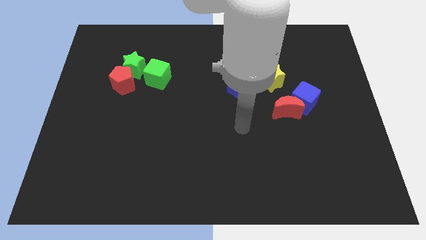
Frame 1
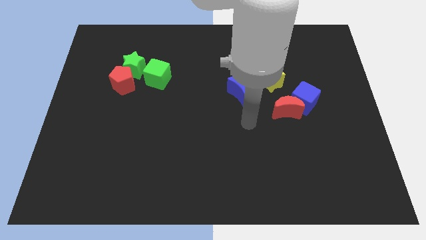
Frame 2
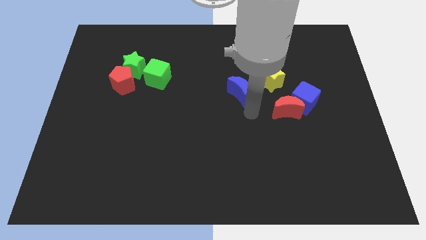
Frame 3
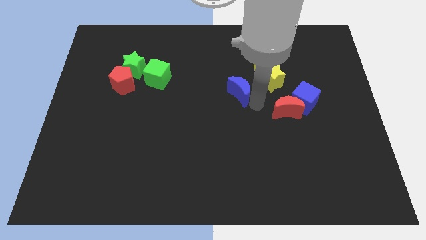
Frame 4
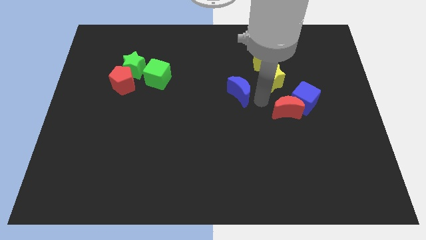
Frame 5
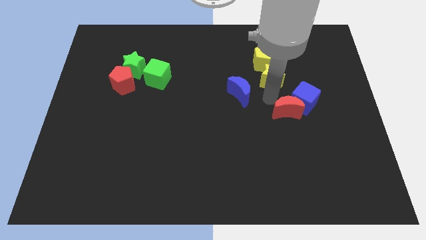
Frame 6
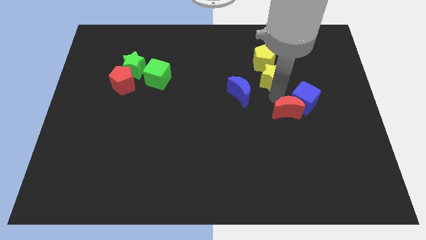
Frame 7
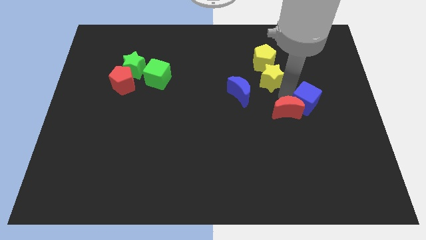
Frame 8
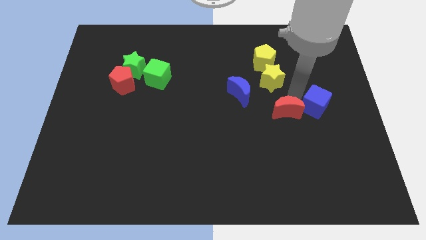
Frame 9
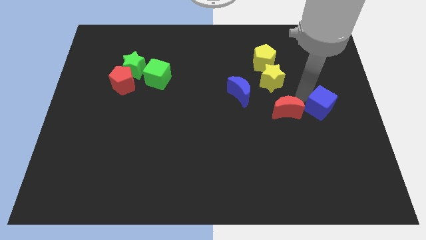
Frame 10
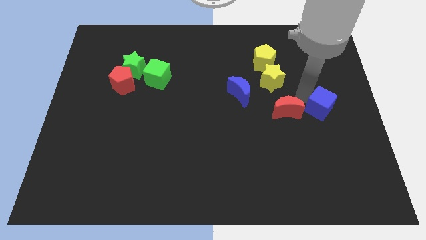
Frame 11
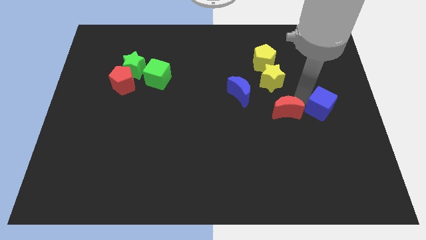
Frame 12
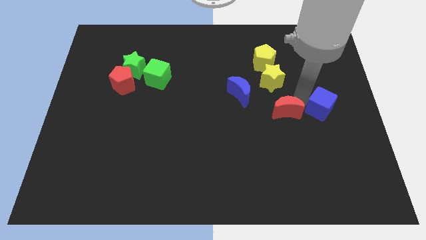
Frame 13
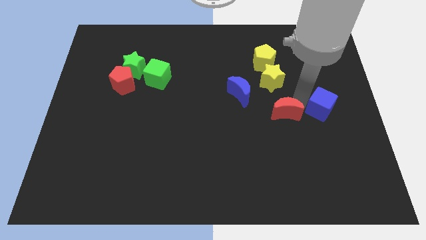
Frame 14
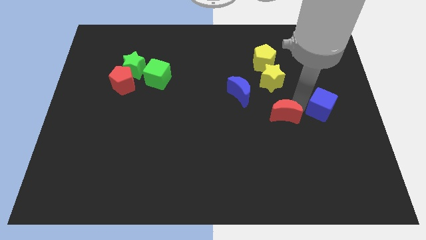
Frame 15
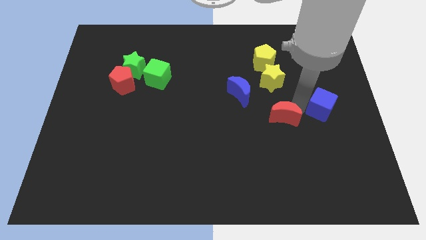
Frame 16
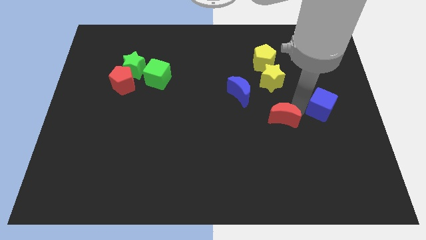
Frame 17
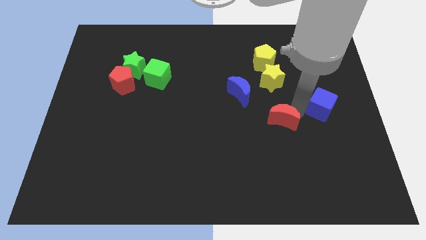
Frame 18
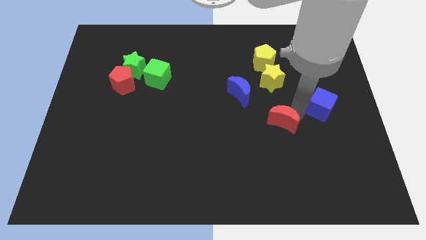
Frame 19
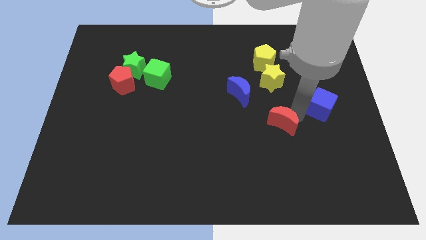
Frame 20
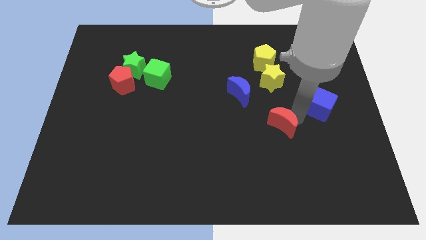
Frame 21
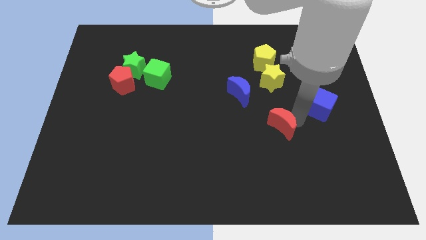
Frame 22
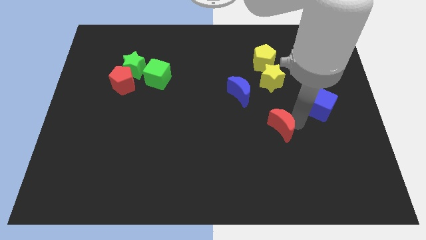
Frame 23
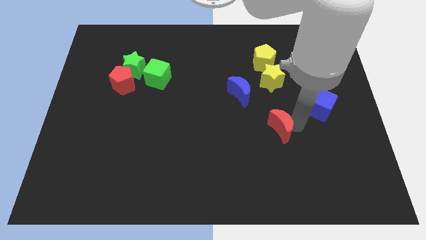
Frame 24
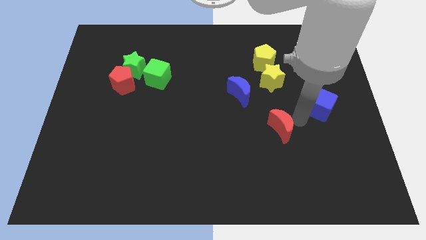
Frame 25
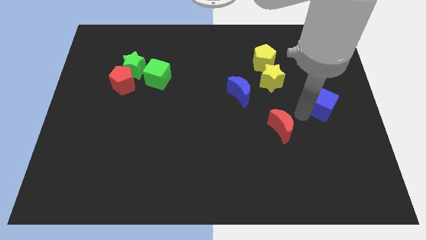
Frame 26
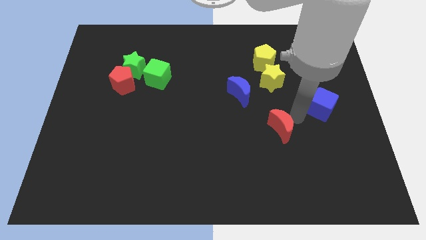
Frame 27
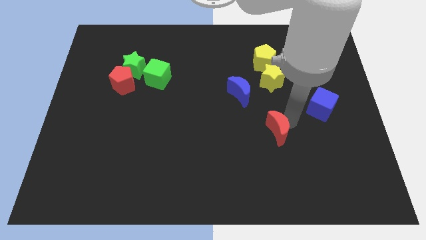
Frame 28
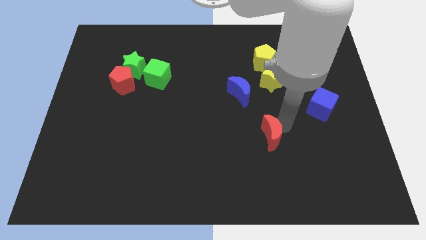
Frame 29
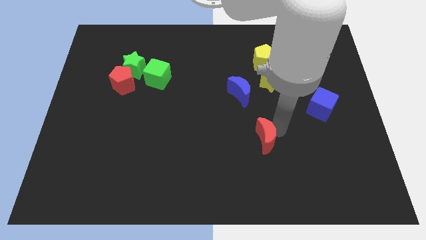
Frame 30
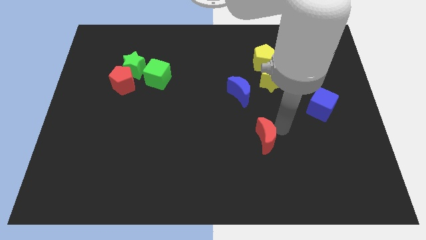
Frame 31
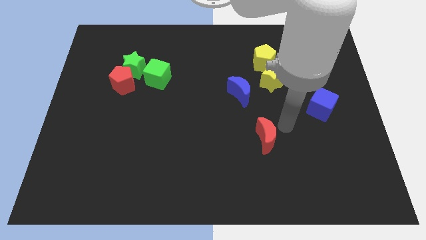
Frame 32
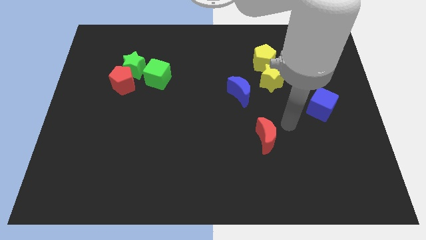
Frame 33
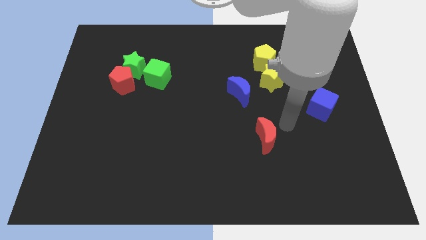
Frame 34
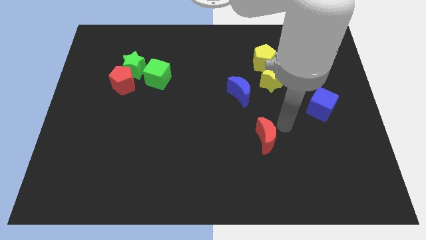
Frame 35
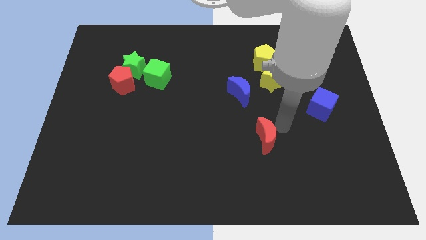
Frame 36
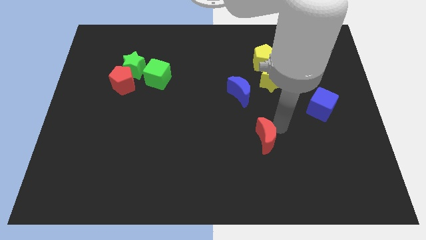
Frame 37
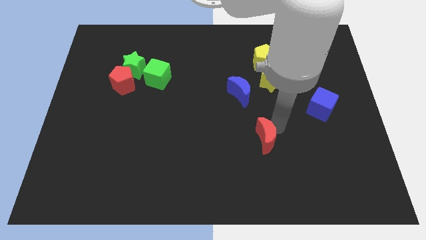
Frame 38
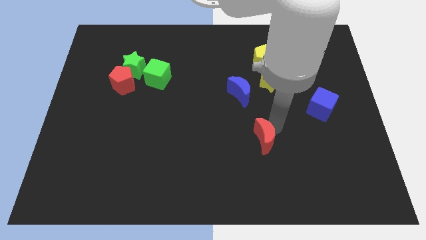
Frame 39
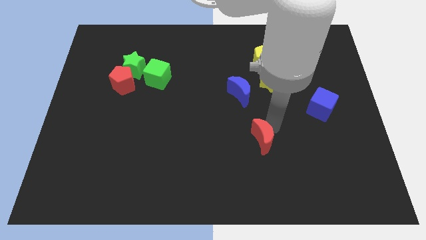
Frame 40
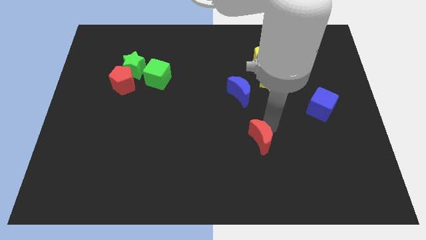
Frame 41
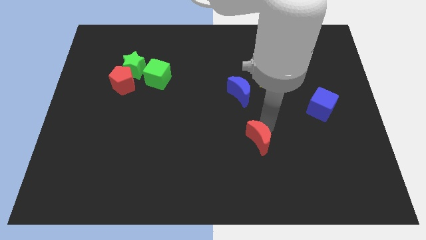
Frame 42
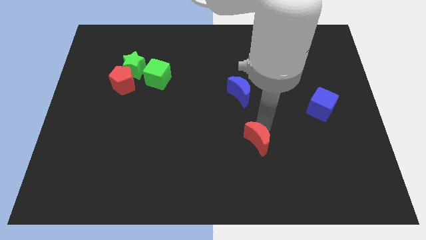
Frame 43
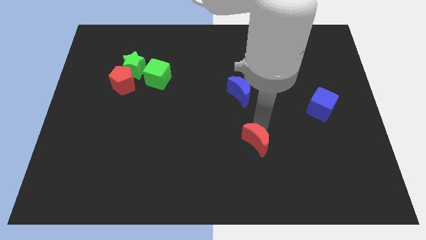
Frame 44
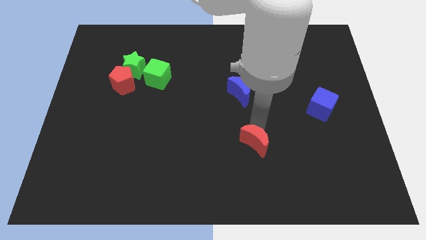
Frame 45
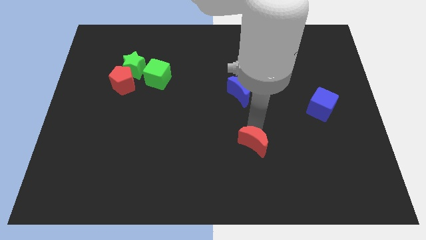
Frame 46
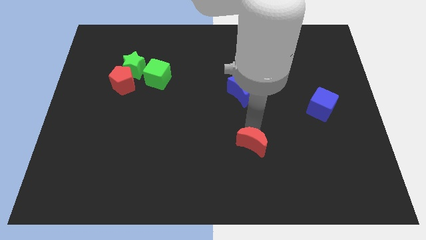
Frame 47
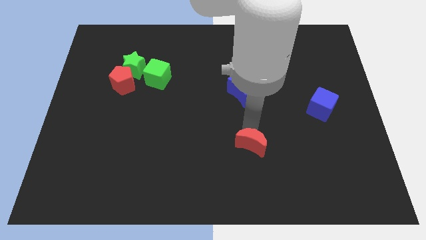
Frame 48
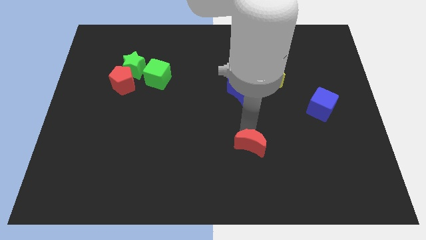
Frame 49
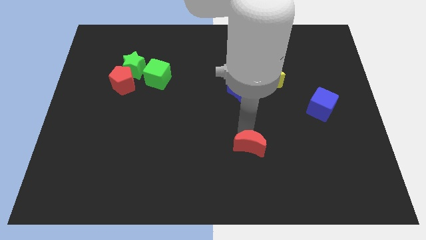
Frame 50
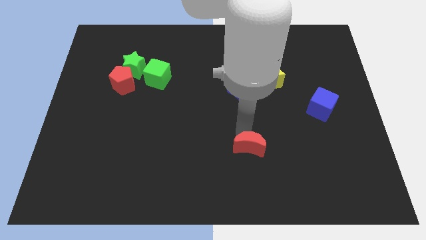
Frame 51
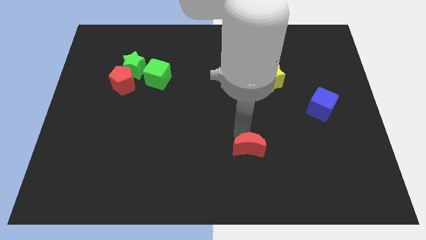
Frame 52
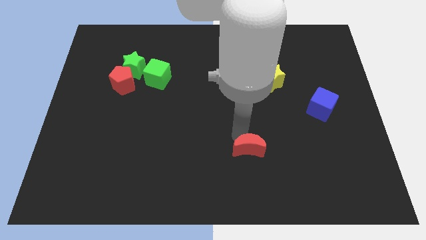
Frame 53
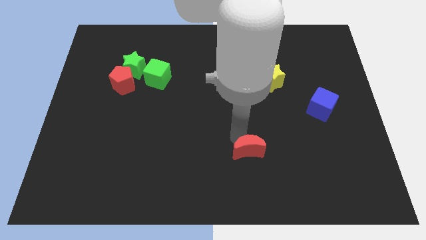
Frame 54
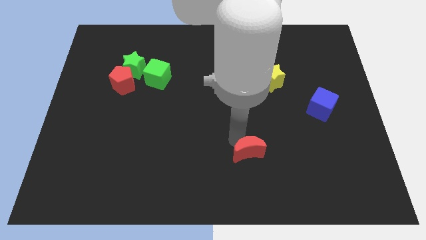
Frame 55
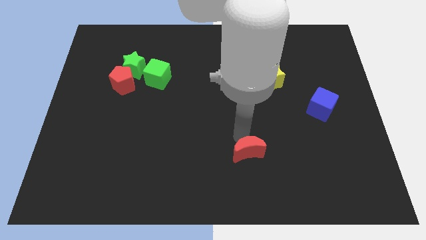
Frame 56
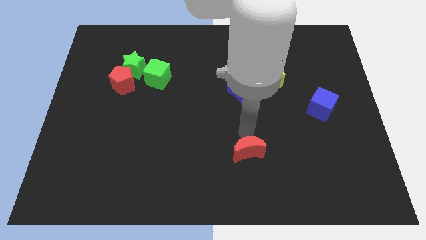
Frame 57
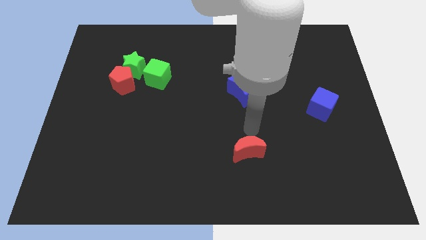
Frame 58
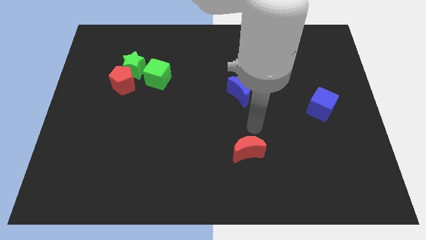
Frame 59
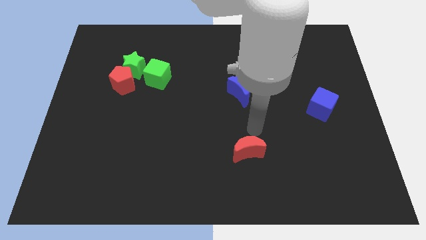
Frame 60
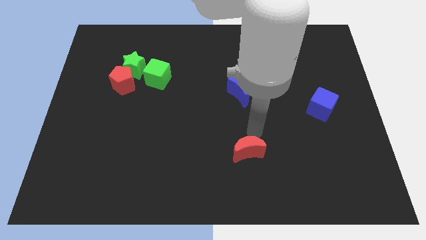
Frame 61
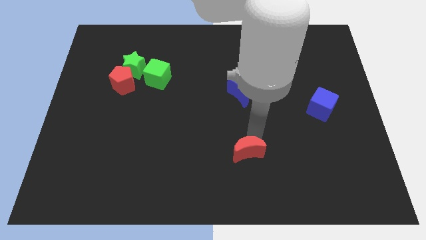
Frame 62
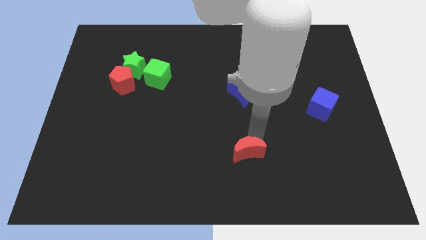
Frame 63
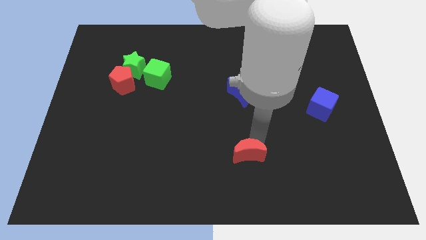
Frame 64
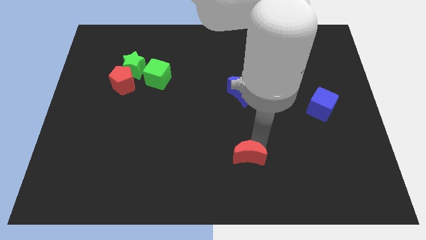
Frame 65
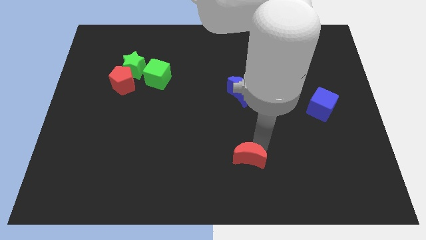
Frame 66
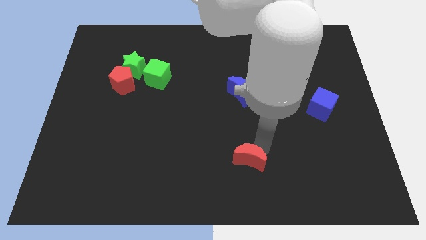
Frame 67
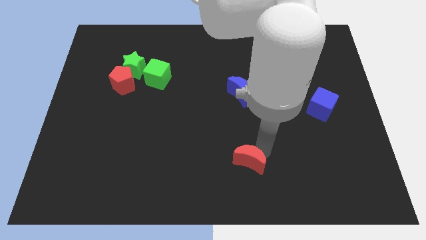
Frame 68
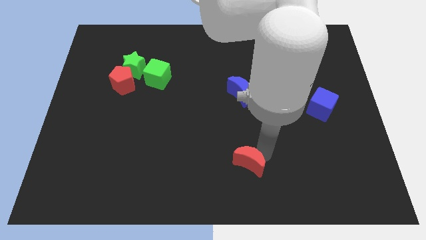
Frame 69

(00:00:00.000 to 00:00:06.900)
push the red moon to the bottom

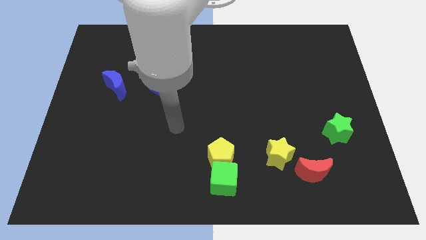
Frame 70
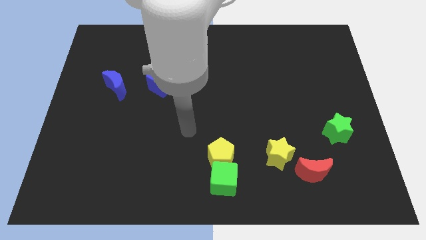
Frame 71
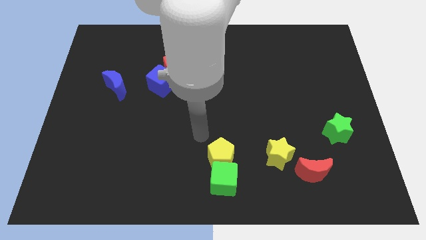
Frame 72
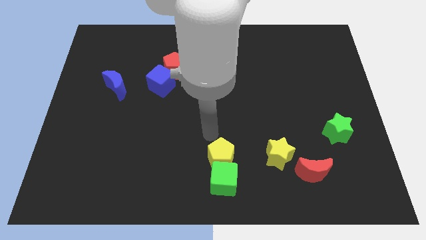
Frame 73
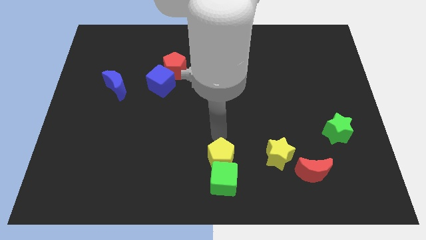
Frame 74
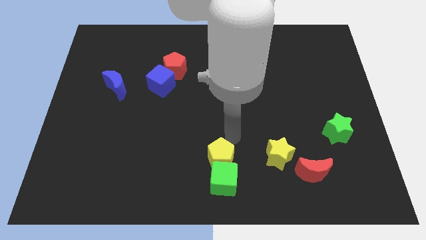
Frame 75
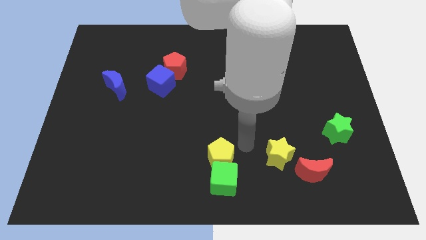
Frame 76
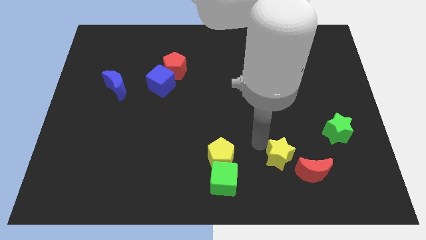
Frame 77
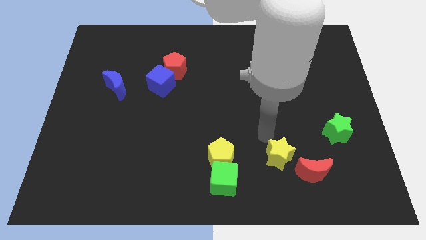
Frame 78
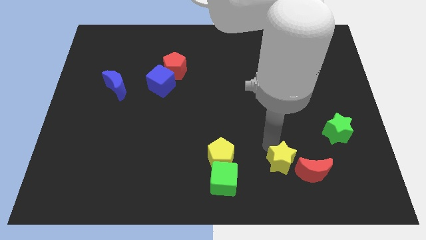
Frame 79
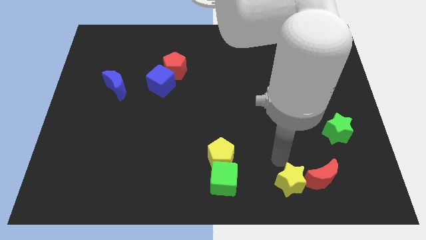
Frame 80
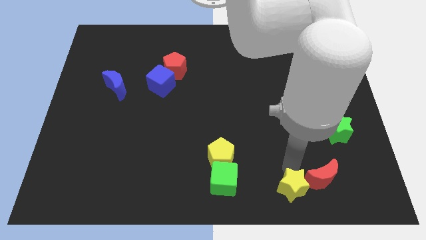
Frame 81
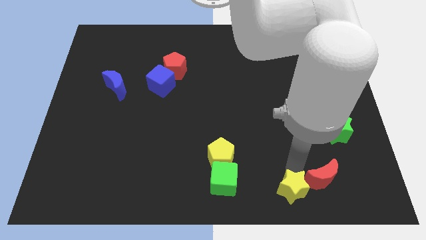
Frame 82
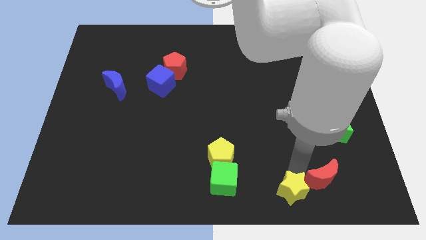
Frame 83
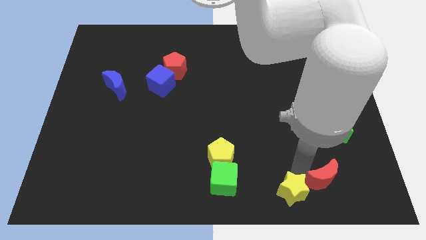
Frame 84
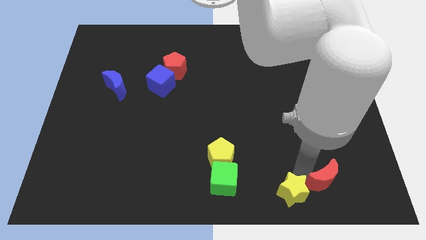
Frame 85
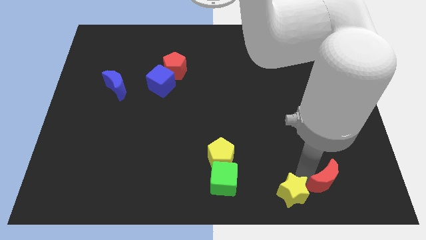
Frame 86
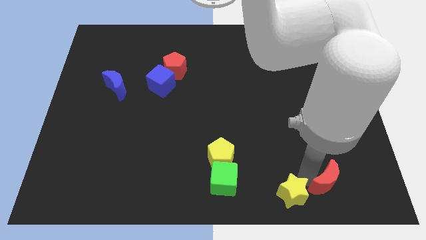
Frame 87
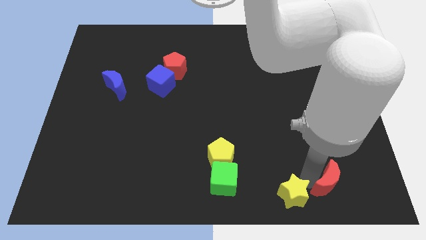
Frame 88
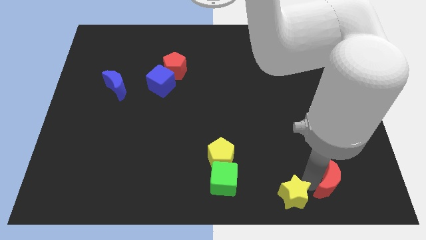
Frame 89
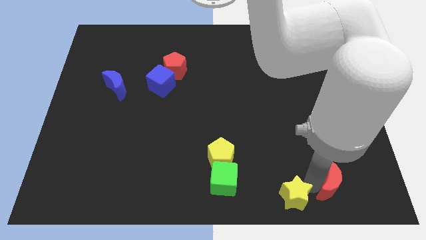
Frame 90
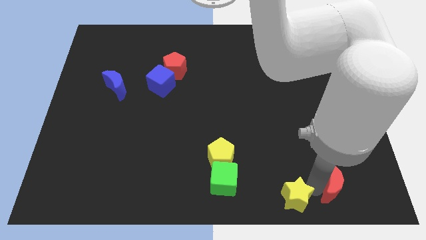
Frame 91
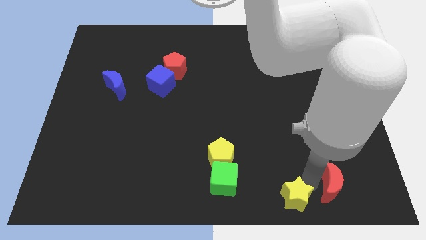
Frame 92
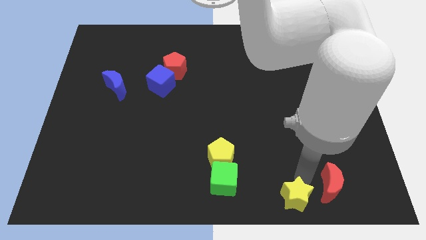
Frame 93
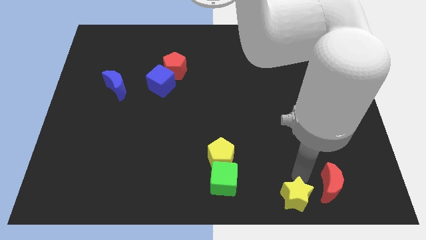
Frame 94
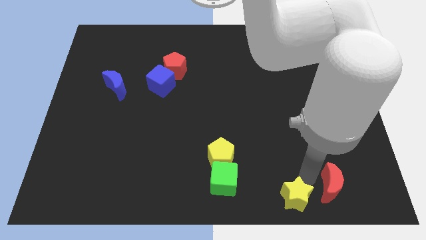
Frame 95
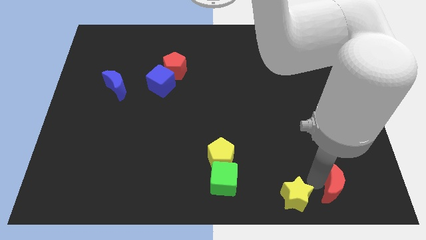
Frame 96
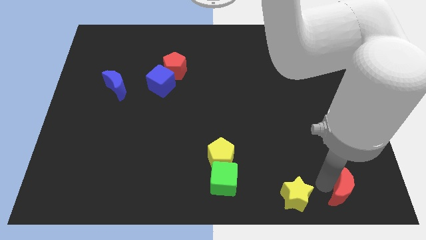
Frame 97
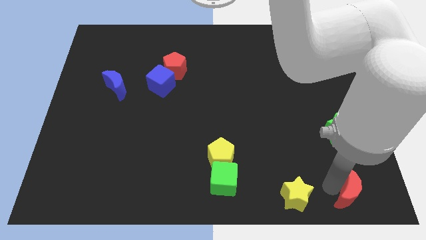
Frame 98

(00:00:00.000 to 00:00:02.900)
put the red moon to the bottom right
